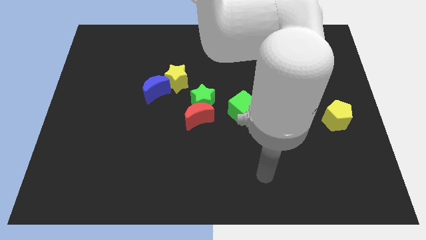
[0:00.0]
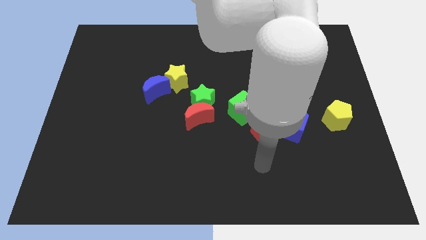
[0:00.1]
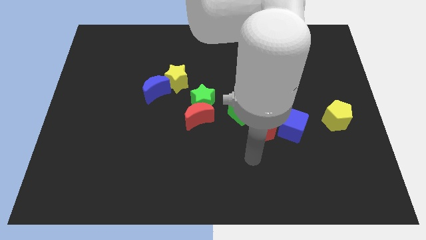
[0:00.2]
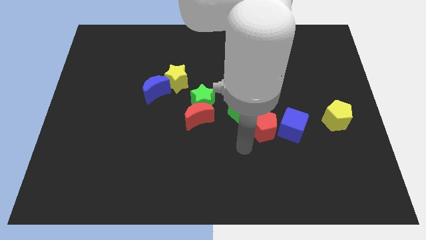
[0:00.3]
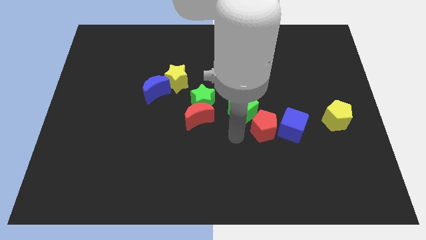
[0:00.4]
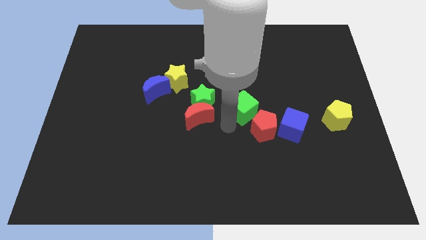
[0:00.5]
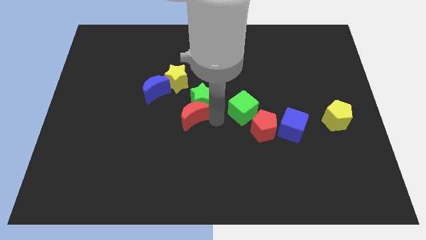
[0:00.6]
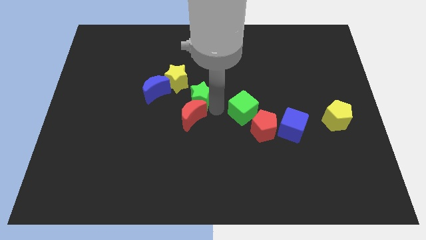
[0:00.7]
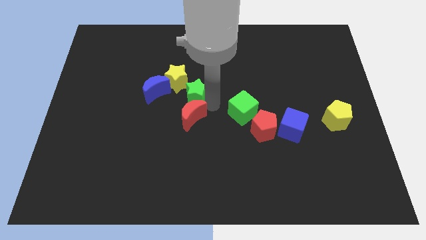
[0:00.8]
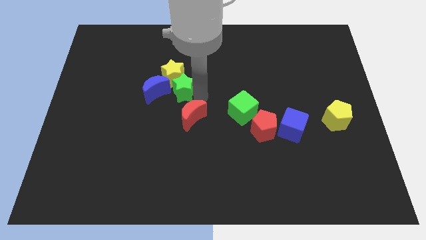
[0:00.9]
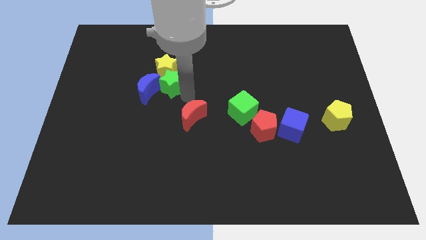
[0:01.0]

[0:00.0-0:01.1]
move the red moon away from the green star

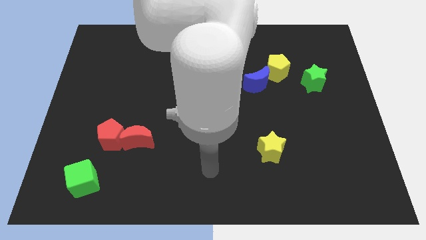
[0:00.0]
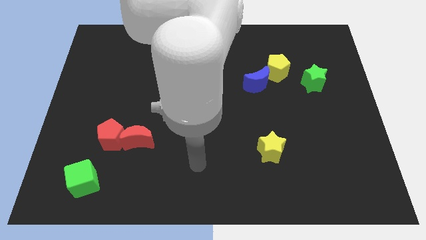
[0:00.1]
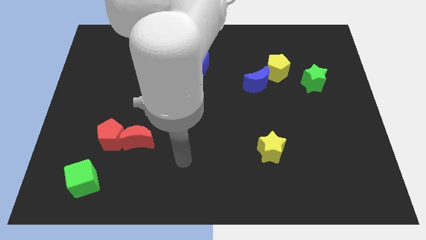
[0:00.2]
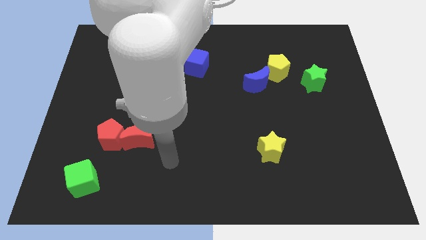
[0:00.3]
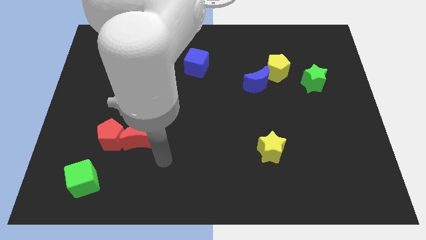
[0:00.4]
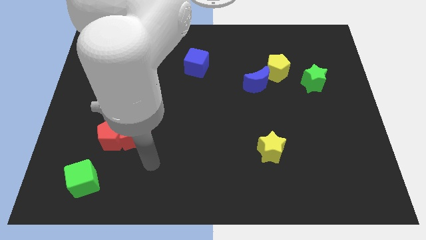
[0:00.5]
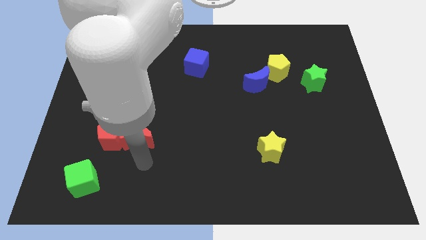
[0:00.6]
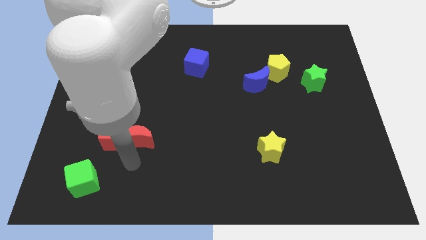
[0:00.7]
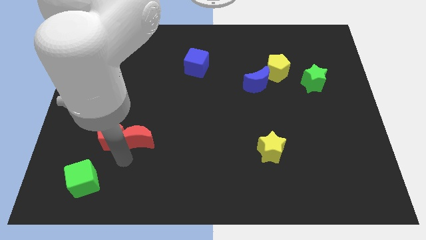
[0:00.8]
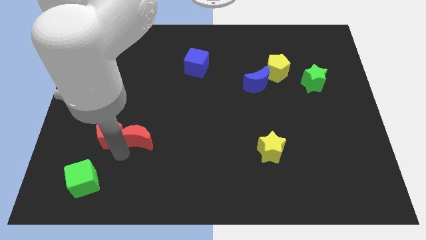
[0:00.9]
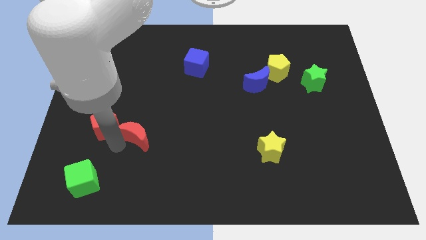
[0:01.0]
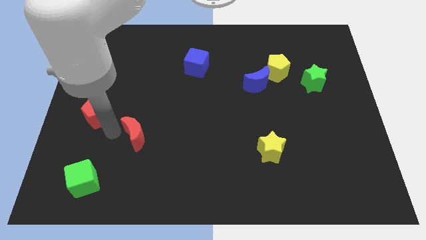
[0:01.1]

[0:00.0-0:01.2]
move the red moon away from the red pentagon

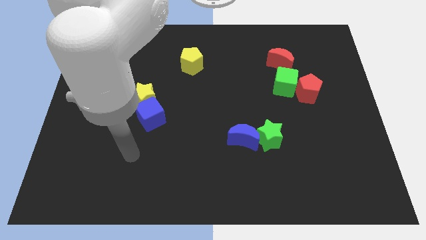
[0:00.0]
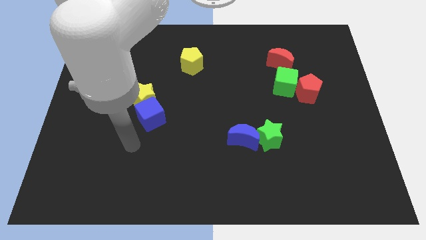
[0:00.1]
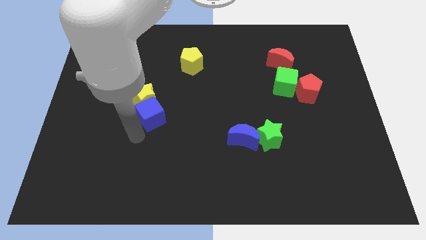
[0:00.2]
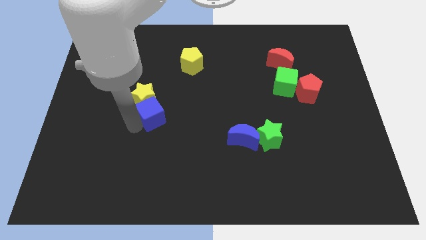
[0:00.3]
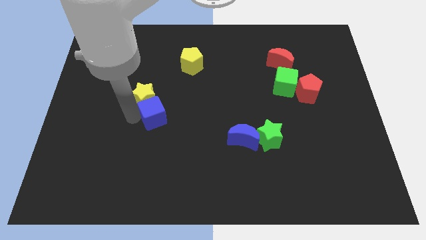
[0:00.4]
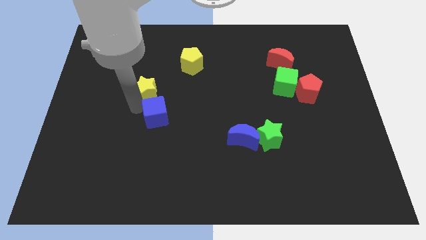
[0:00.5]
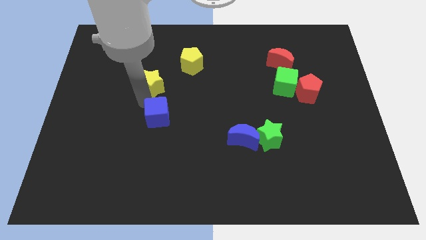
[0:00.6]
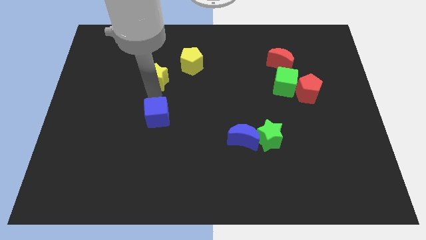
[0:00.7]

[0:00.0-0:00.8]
separate the blue cube from the yellow star

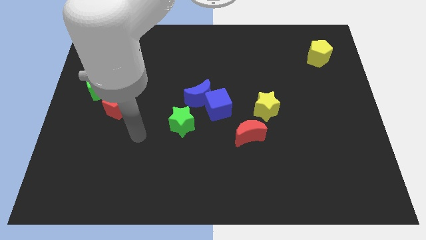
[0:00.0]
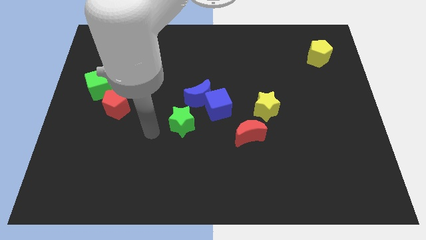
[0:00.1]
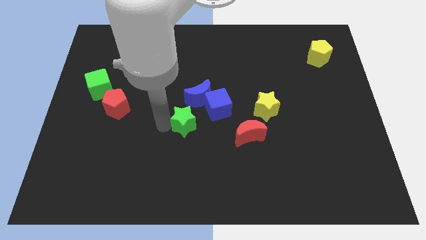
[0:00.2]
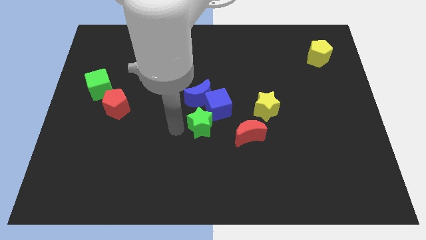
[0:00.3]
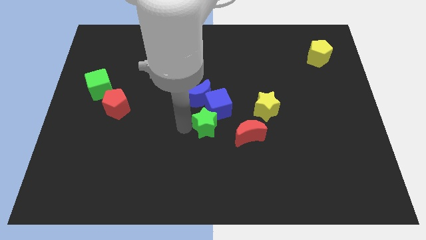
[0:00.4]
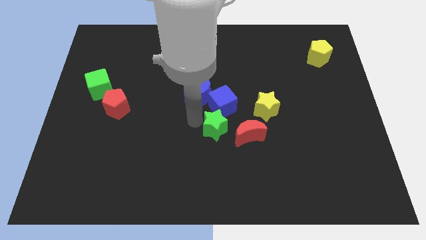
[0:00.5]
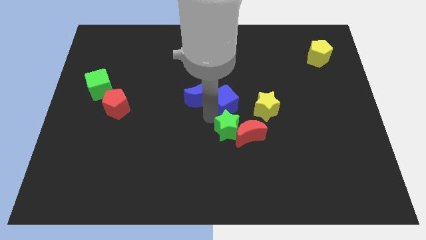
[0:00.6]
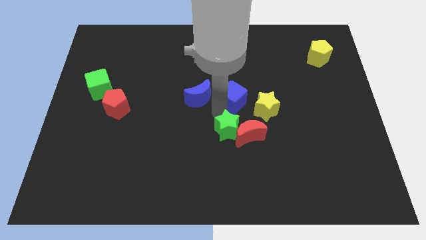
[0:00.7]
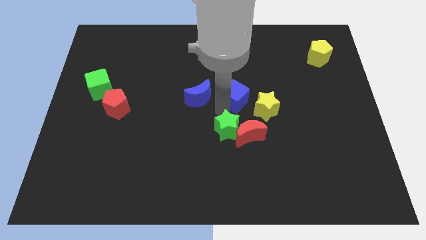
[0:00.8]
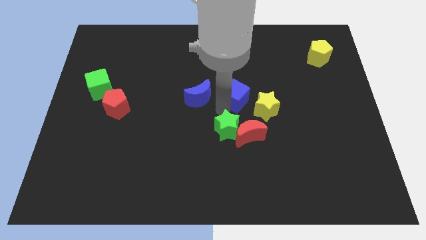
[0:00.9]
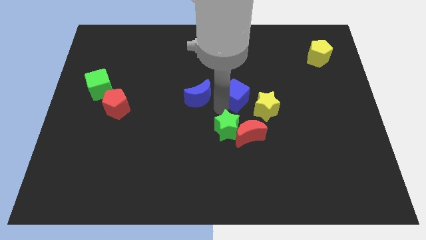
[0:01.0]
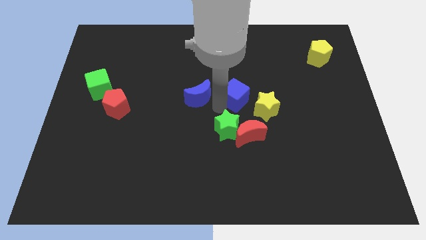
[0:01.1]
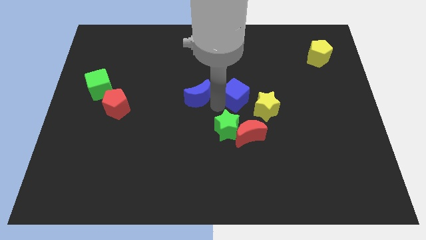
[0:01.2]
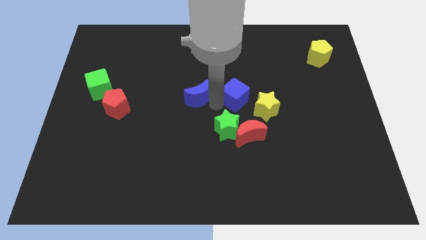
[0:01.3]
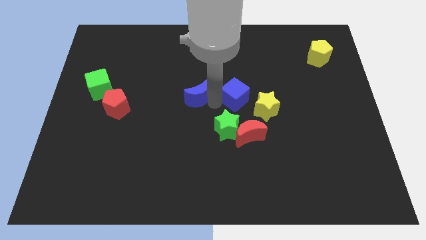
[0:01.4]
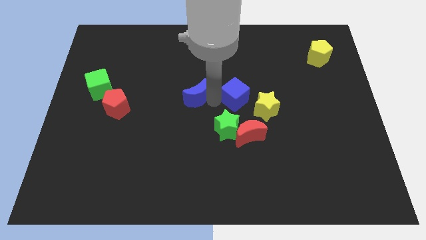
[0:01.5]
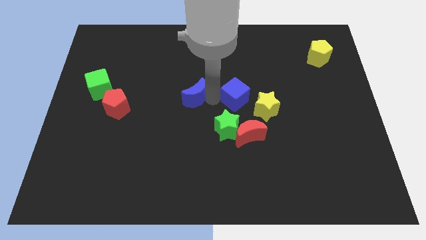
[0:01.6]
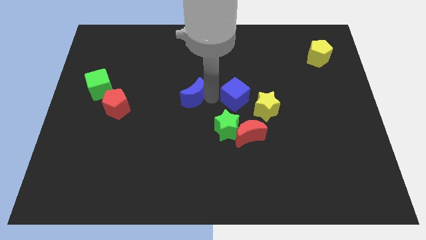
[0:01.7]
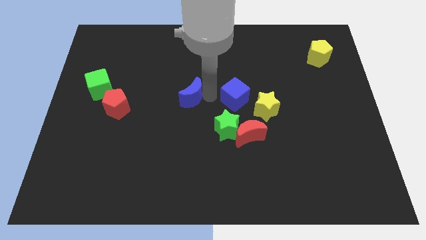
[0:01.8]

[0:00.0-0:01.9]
pull the blue moon apart from the blue cube and green star

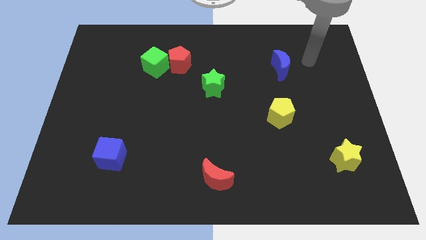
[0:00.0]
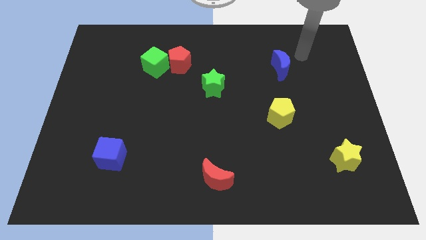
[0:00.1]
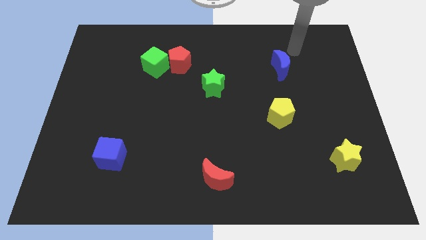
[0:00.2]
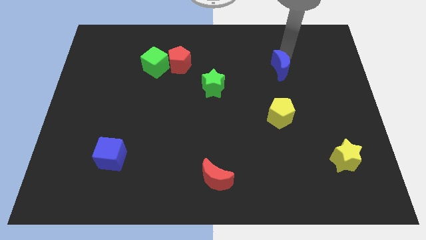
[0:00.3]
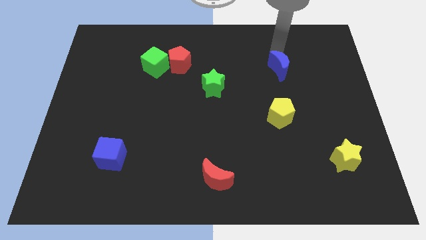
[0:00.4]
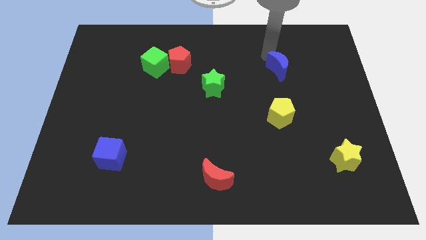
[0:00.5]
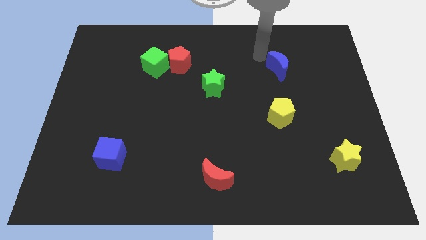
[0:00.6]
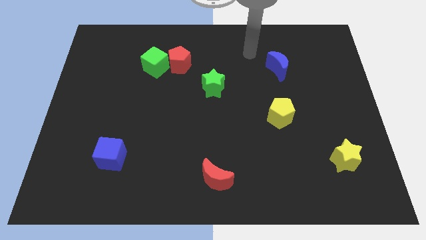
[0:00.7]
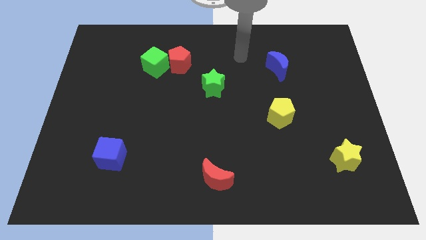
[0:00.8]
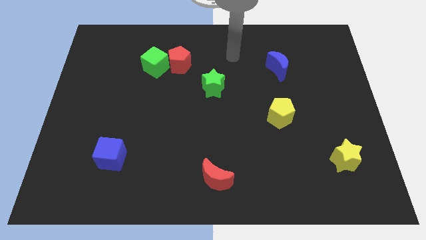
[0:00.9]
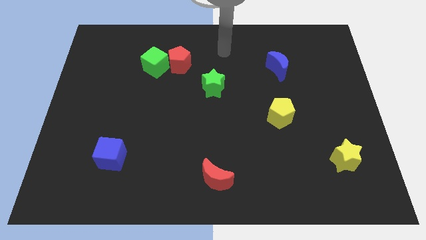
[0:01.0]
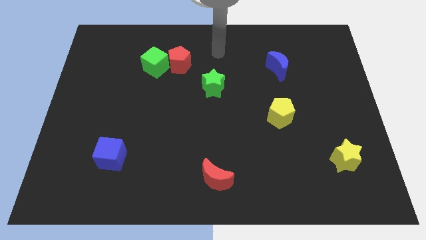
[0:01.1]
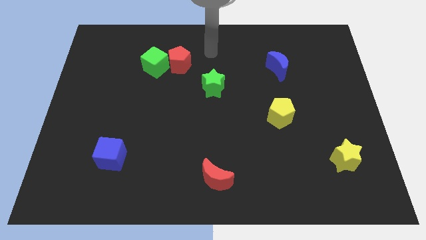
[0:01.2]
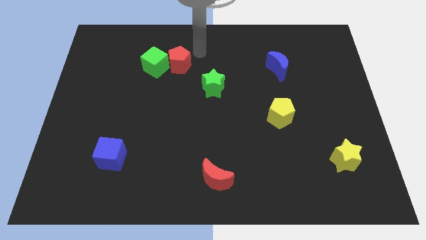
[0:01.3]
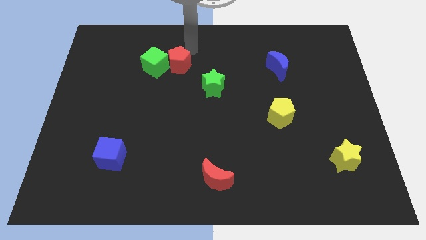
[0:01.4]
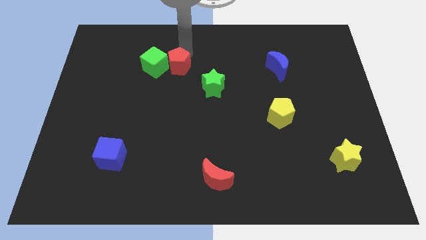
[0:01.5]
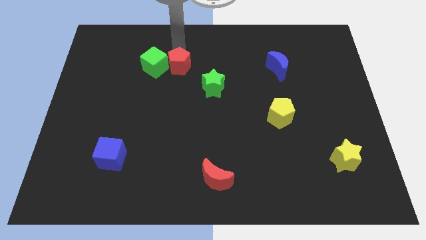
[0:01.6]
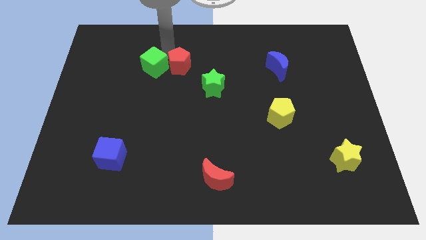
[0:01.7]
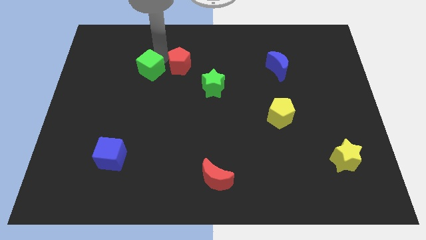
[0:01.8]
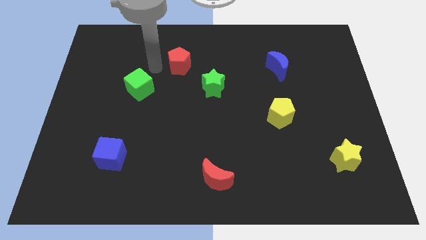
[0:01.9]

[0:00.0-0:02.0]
move the red pentagon away from the green cube

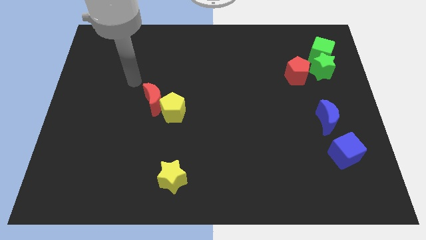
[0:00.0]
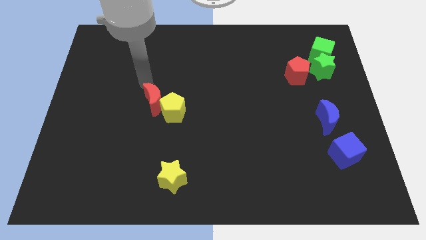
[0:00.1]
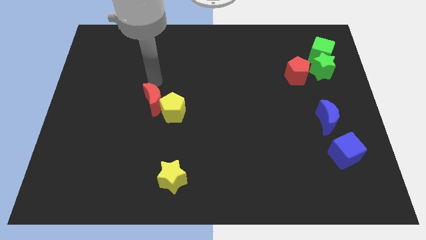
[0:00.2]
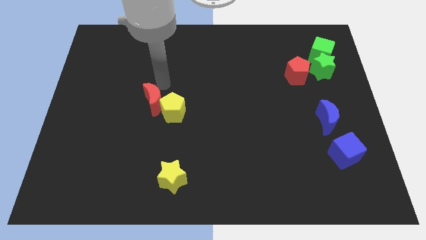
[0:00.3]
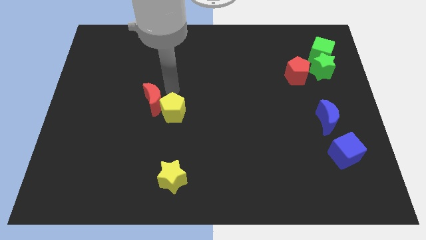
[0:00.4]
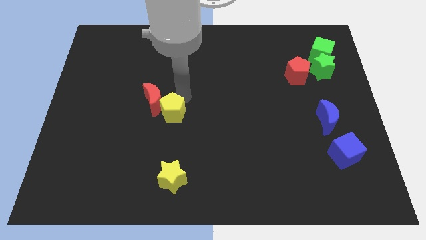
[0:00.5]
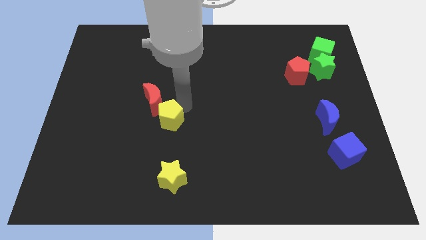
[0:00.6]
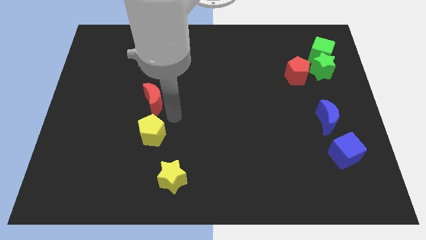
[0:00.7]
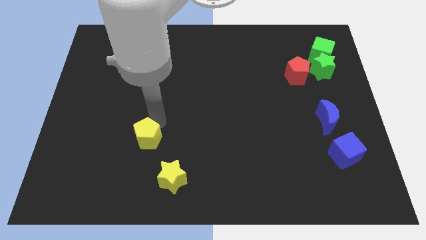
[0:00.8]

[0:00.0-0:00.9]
pull the red moon apart from the yellow pentagon

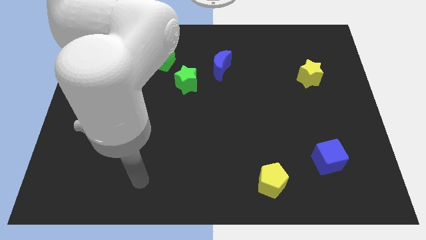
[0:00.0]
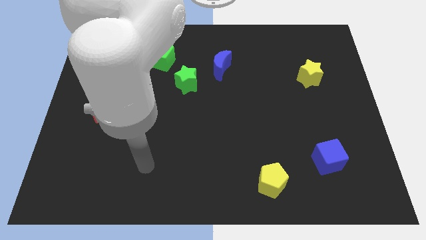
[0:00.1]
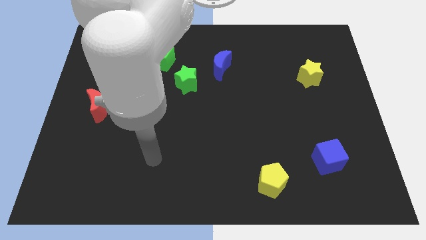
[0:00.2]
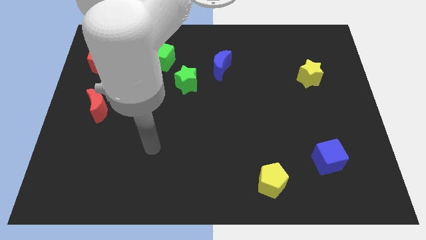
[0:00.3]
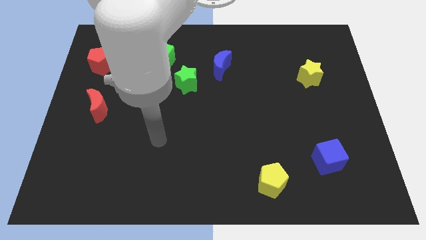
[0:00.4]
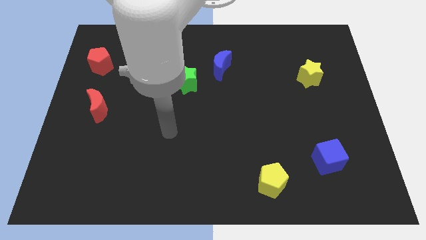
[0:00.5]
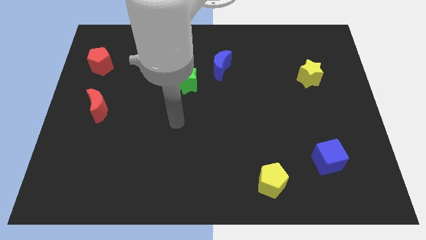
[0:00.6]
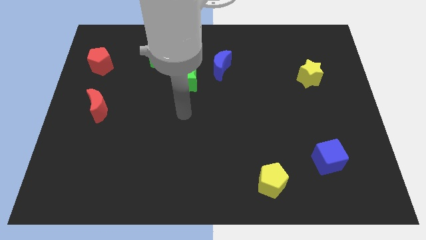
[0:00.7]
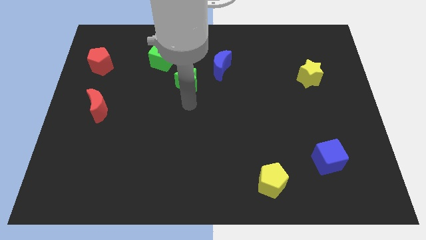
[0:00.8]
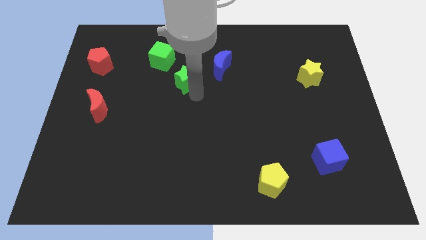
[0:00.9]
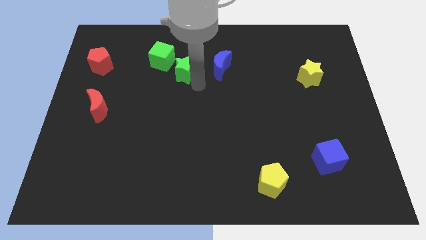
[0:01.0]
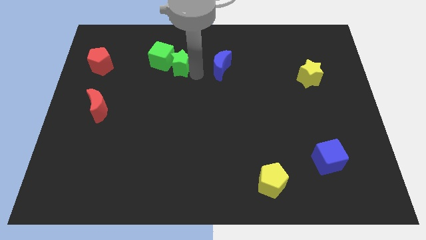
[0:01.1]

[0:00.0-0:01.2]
move the blue moon away from the green star

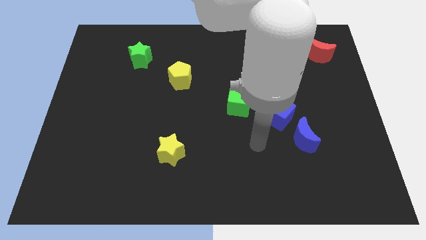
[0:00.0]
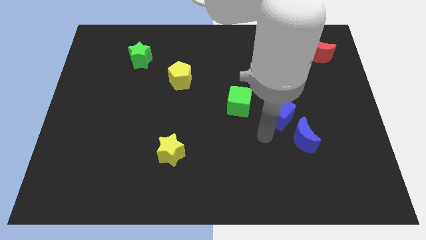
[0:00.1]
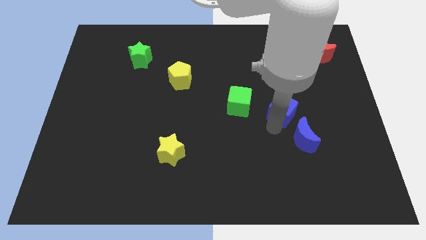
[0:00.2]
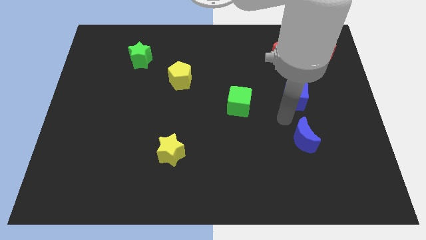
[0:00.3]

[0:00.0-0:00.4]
move the blue moon away from the blue cube

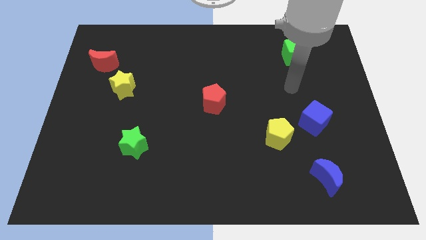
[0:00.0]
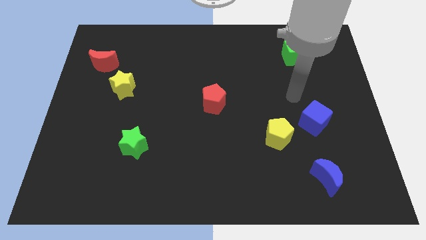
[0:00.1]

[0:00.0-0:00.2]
move the blue cube away from the yellow pentagon
